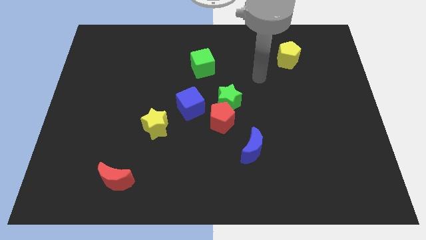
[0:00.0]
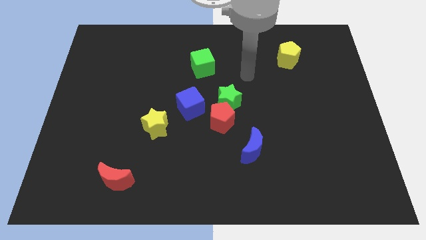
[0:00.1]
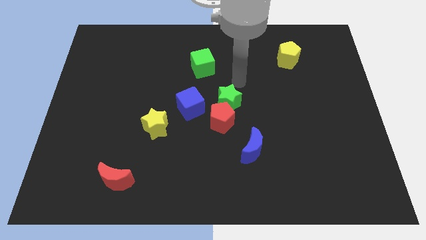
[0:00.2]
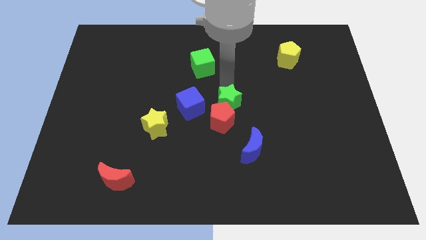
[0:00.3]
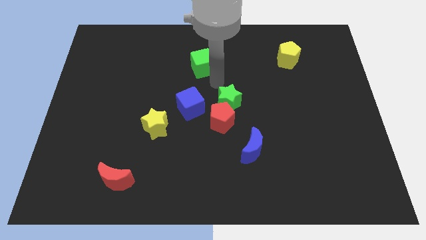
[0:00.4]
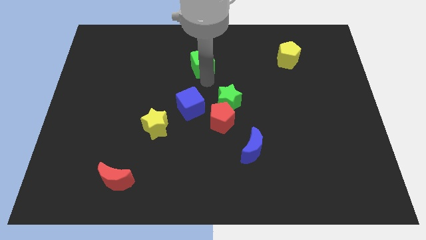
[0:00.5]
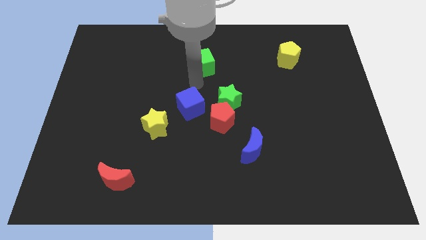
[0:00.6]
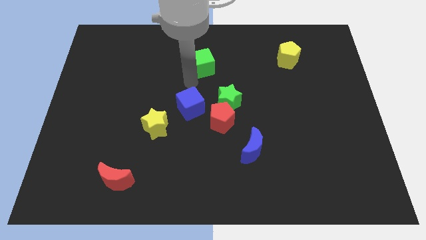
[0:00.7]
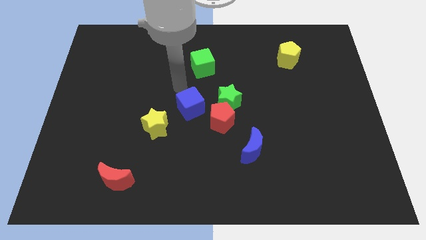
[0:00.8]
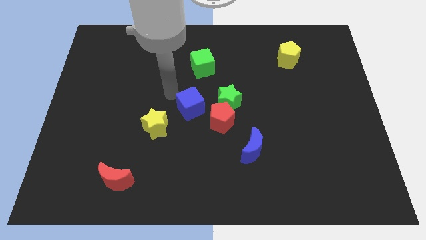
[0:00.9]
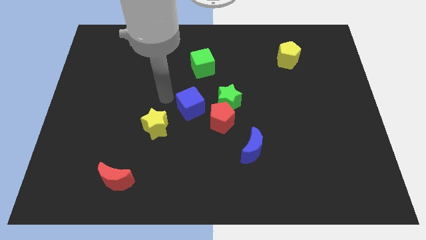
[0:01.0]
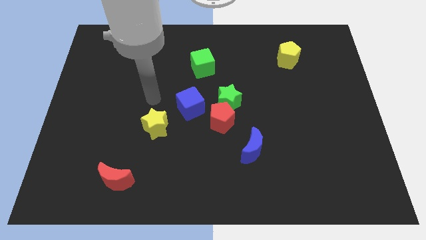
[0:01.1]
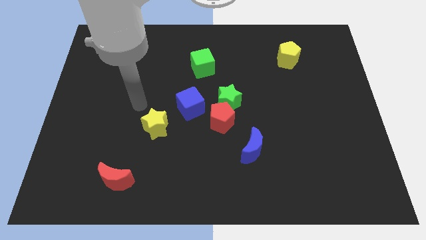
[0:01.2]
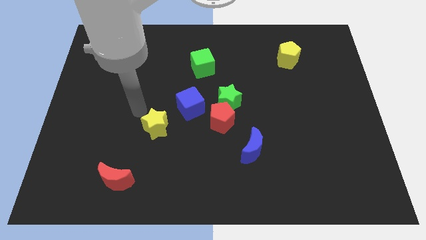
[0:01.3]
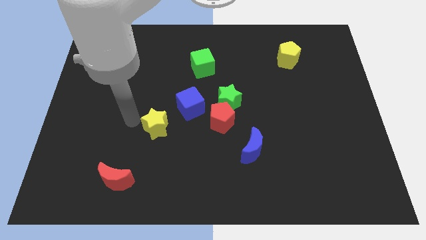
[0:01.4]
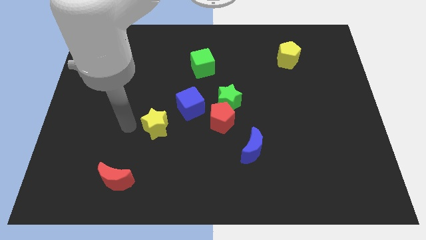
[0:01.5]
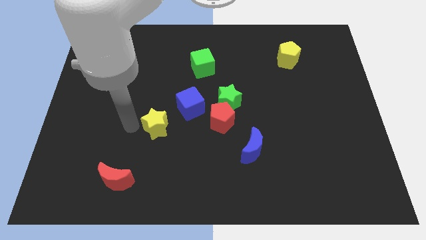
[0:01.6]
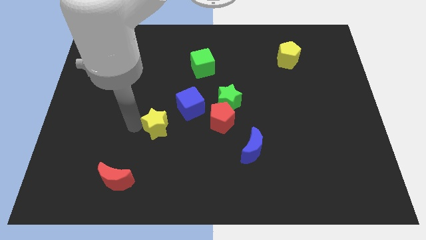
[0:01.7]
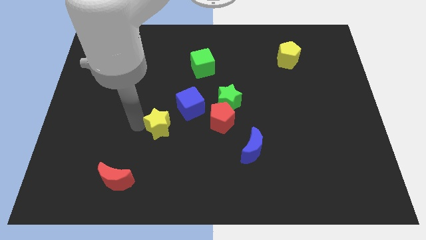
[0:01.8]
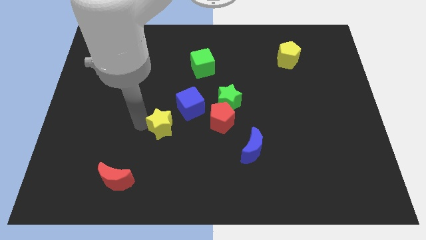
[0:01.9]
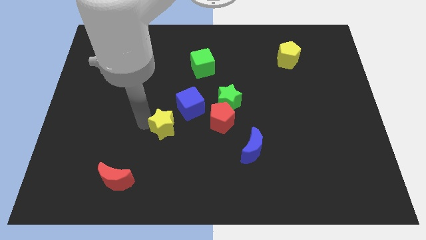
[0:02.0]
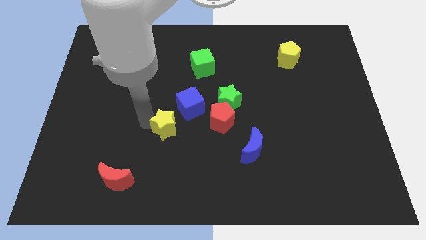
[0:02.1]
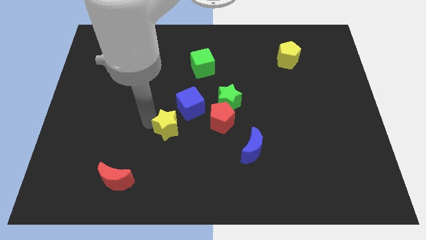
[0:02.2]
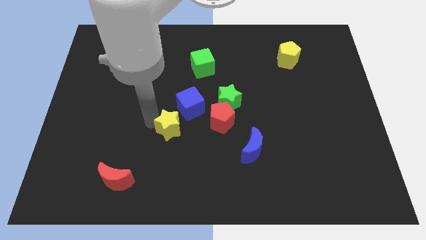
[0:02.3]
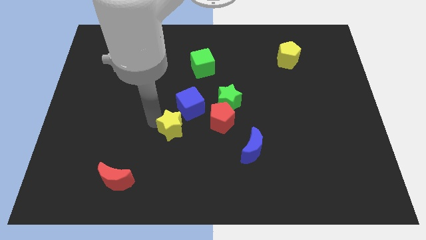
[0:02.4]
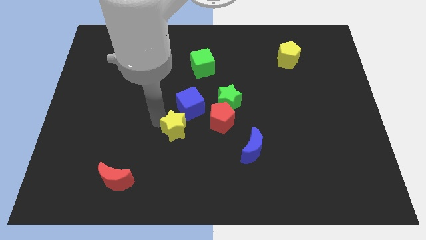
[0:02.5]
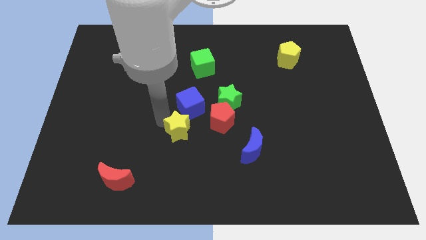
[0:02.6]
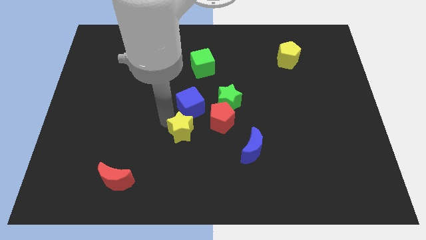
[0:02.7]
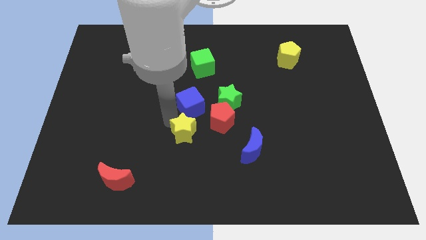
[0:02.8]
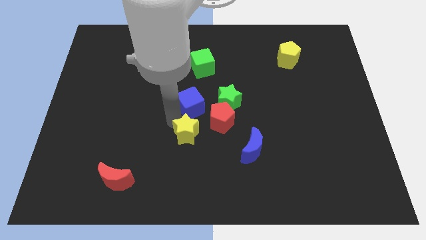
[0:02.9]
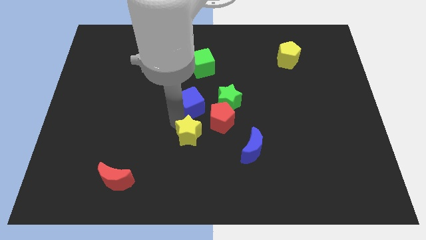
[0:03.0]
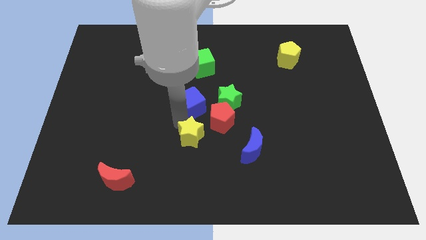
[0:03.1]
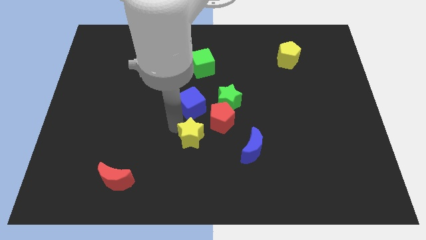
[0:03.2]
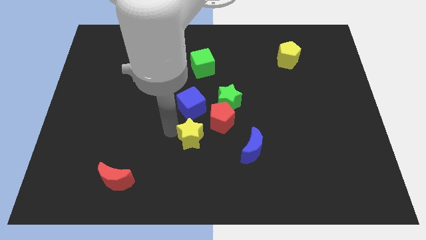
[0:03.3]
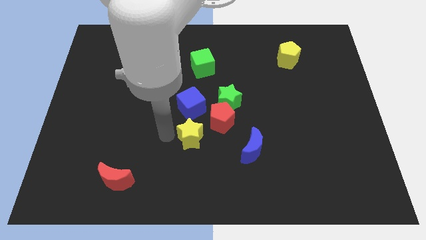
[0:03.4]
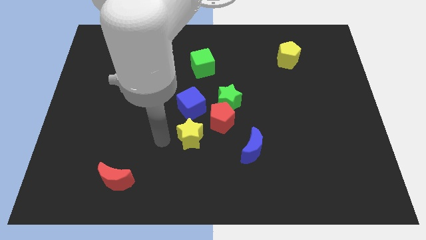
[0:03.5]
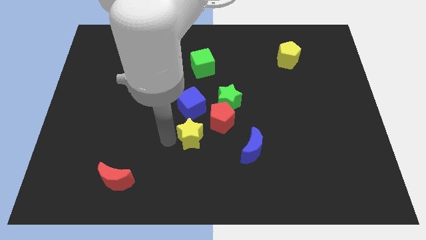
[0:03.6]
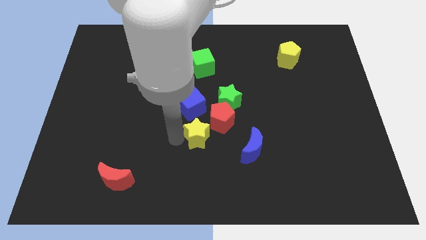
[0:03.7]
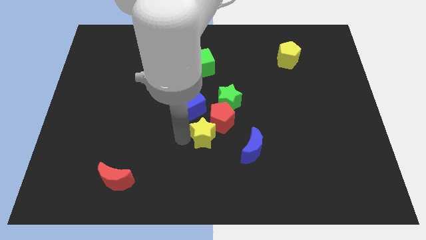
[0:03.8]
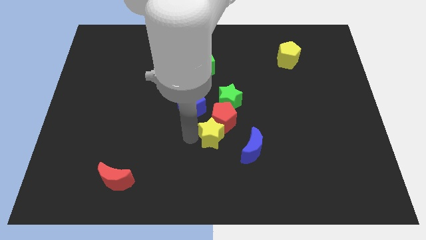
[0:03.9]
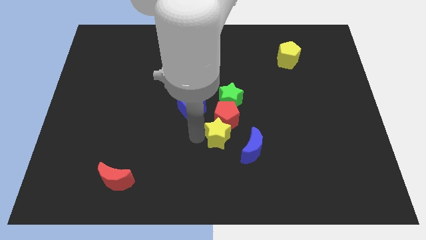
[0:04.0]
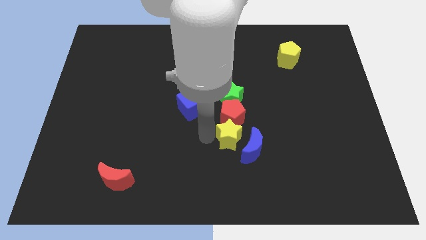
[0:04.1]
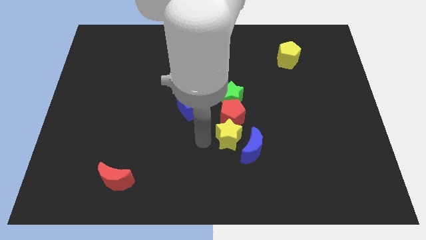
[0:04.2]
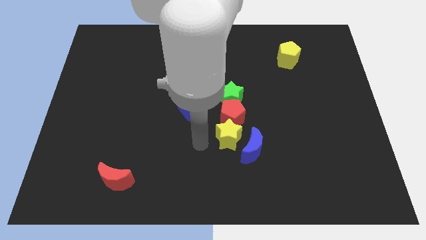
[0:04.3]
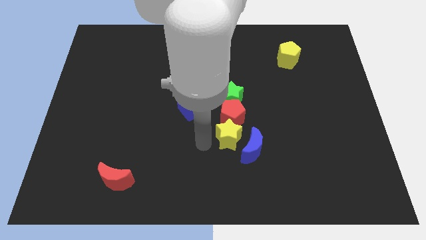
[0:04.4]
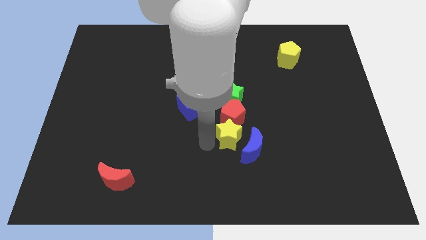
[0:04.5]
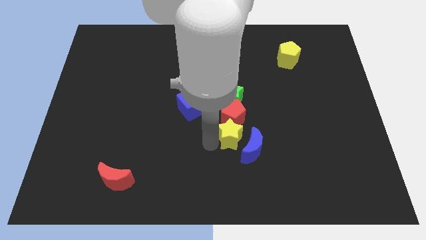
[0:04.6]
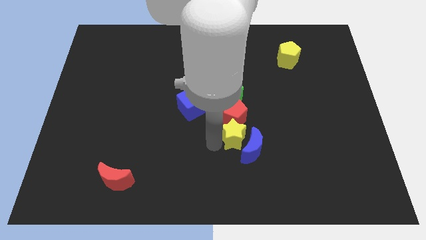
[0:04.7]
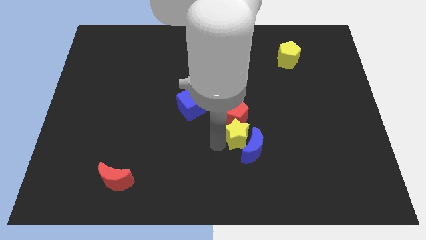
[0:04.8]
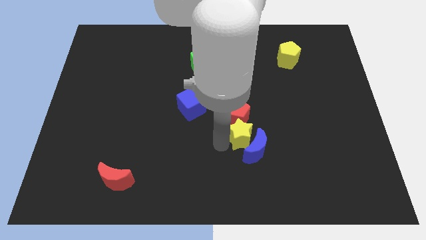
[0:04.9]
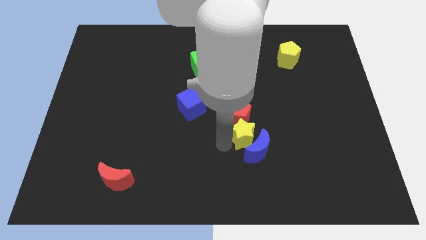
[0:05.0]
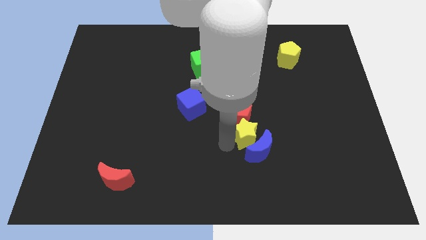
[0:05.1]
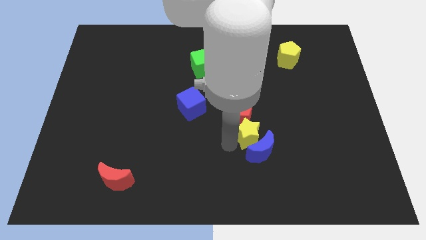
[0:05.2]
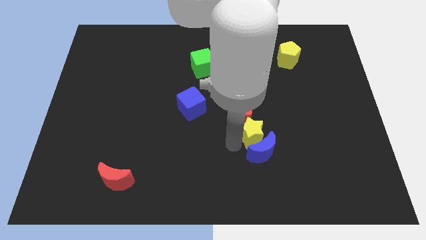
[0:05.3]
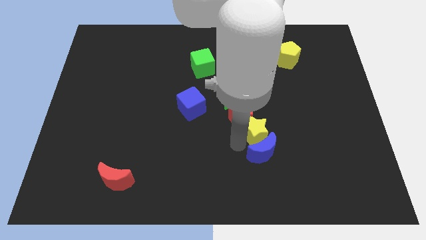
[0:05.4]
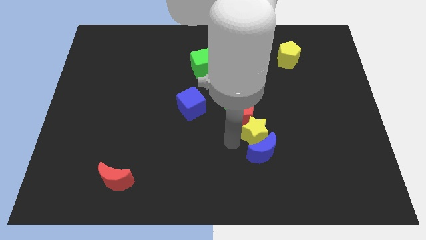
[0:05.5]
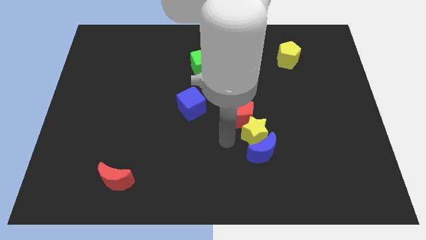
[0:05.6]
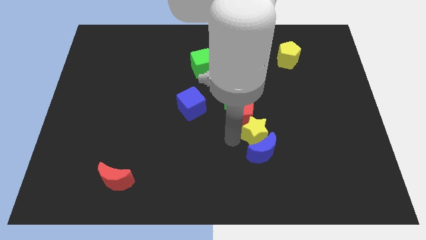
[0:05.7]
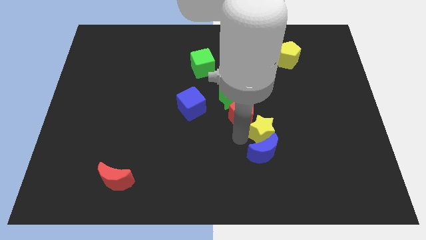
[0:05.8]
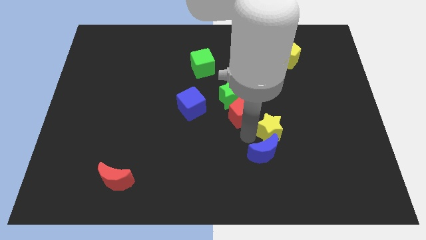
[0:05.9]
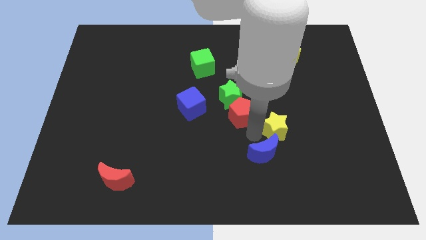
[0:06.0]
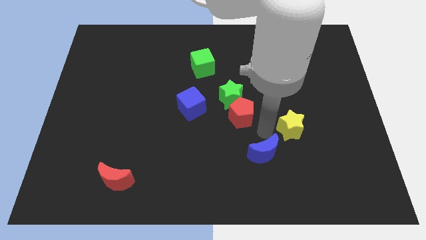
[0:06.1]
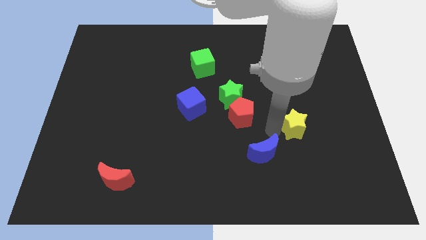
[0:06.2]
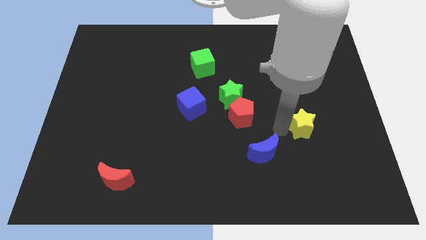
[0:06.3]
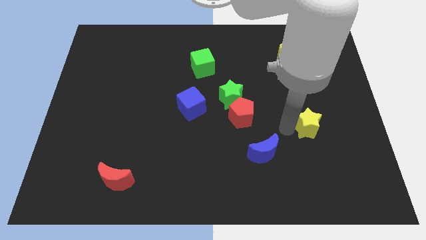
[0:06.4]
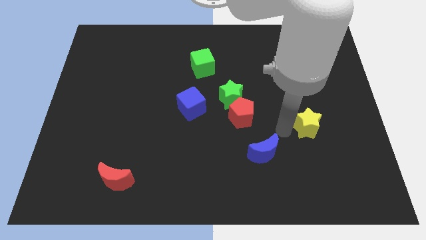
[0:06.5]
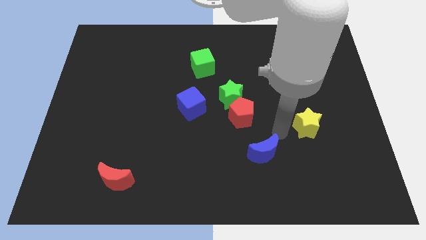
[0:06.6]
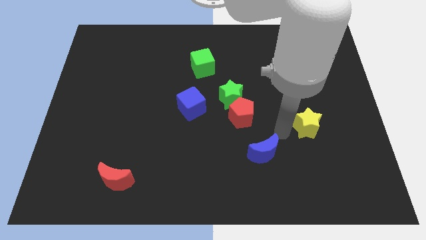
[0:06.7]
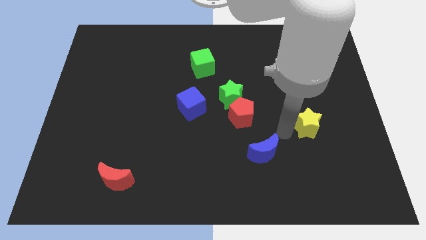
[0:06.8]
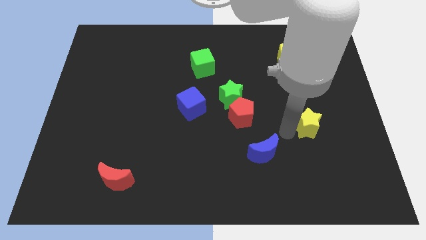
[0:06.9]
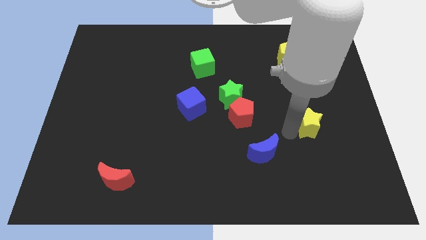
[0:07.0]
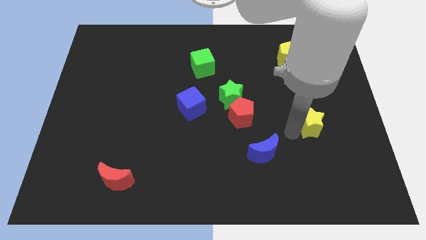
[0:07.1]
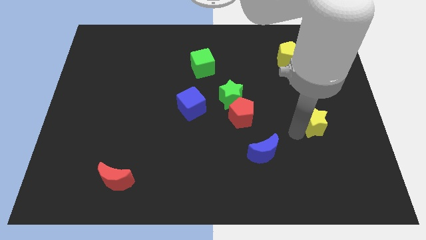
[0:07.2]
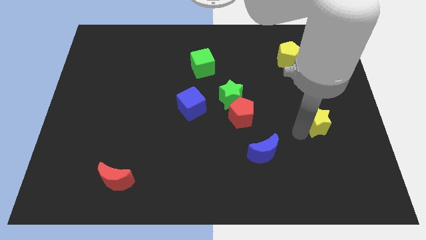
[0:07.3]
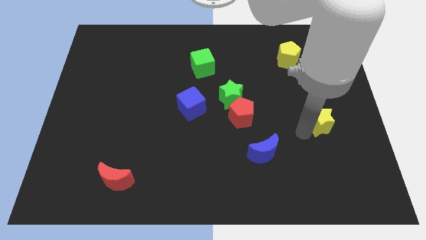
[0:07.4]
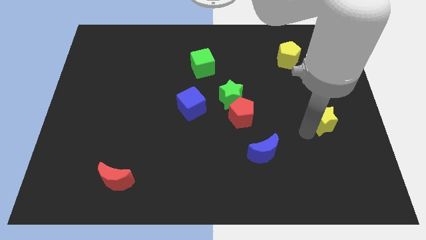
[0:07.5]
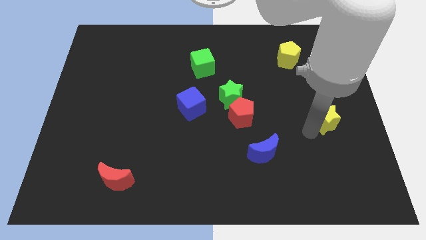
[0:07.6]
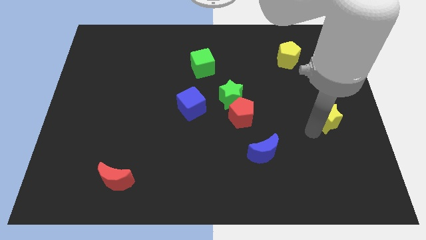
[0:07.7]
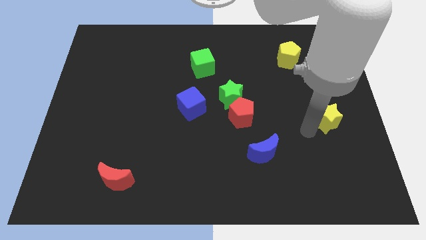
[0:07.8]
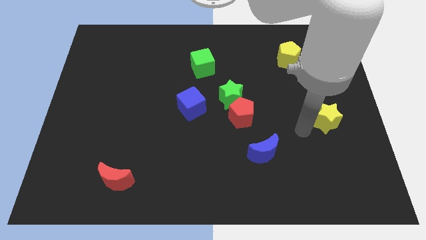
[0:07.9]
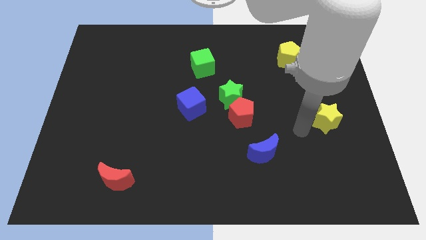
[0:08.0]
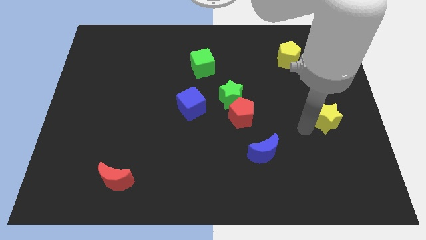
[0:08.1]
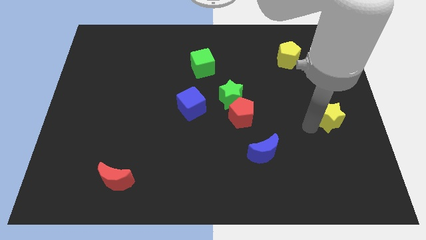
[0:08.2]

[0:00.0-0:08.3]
put the yellow star to the center right
